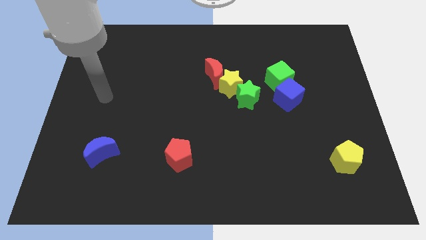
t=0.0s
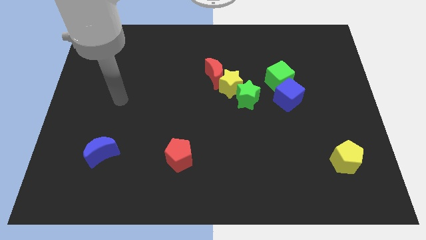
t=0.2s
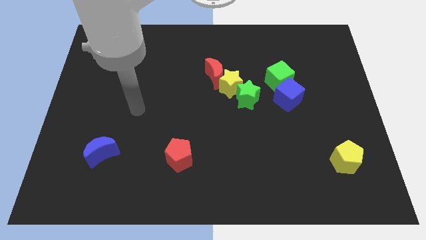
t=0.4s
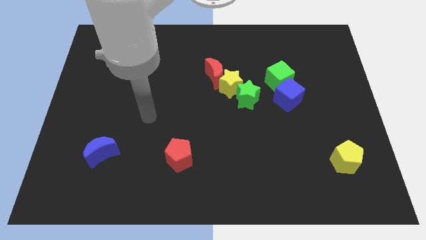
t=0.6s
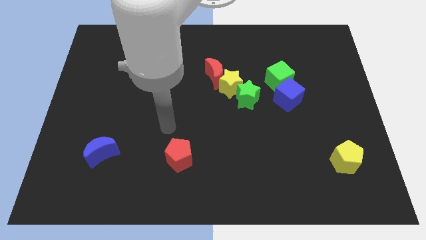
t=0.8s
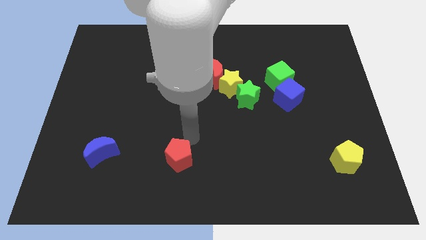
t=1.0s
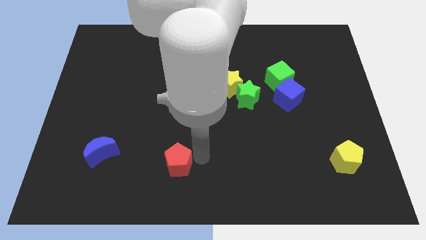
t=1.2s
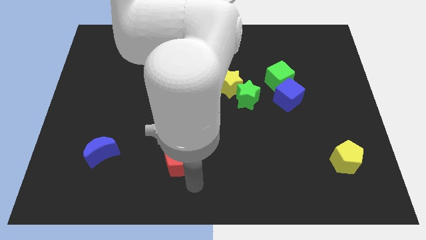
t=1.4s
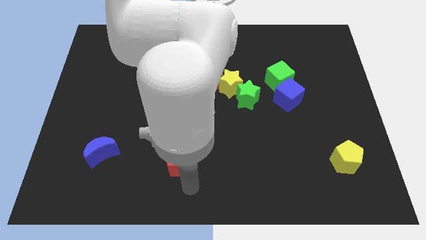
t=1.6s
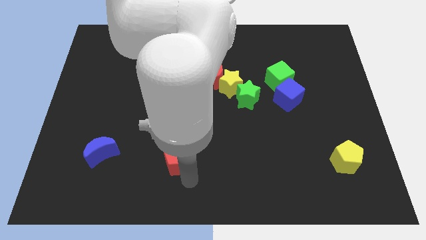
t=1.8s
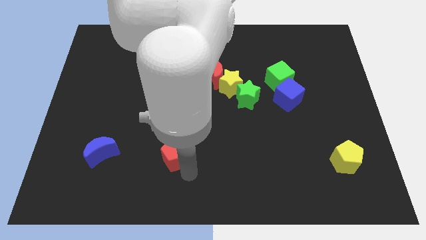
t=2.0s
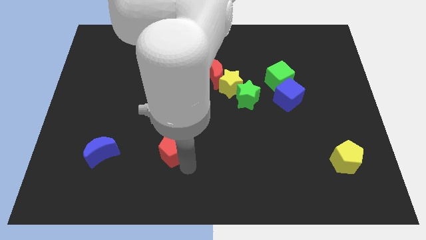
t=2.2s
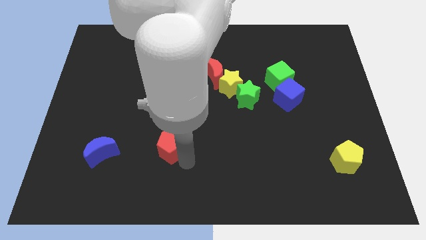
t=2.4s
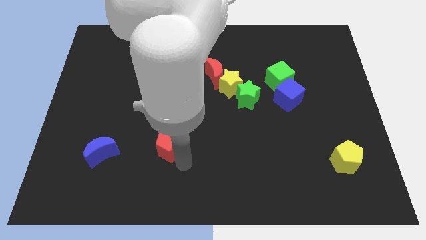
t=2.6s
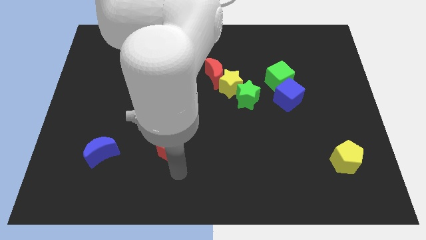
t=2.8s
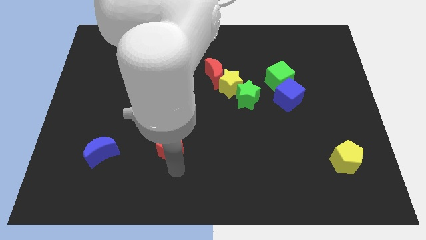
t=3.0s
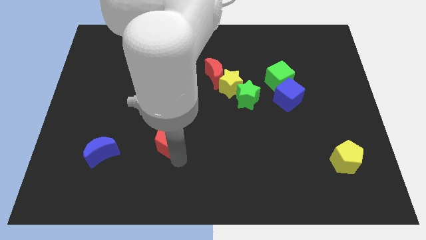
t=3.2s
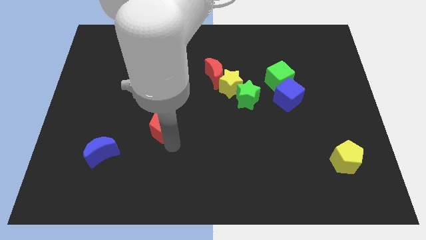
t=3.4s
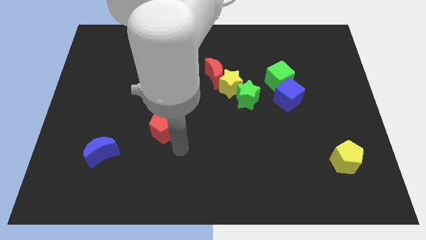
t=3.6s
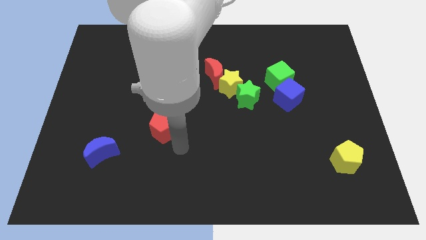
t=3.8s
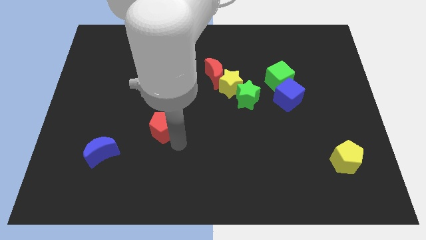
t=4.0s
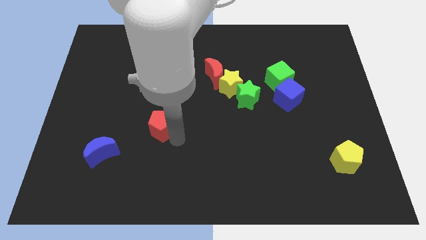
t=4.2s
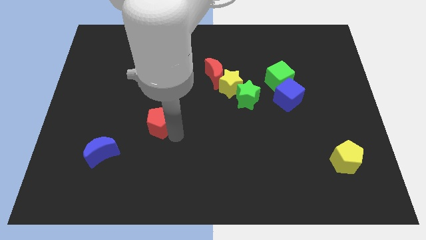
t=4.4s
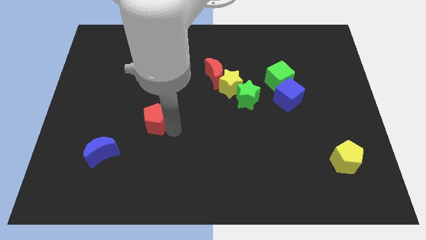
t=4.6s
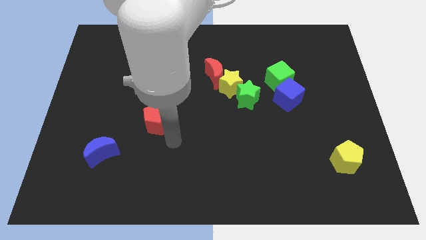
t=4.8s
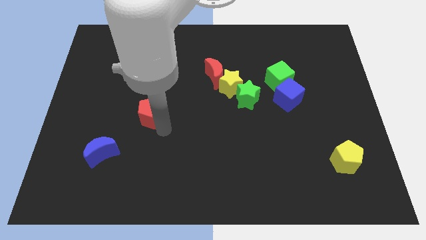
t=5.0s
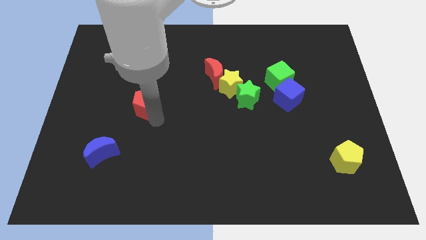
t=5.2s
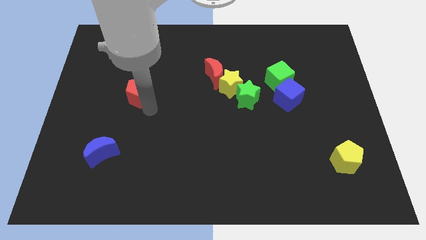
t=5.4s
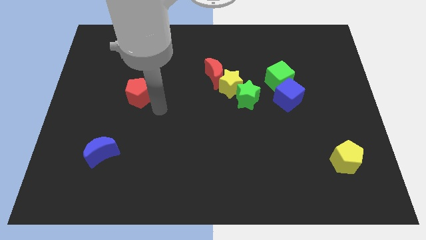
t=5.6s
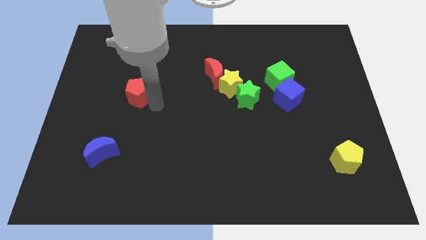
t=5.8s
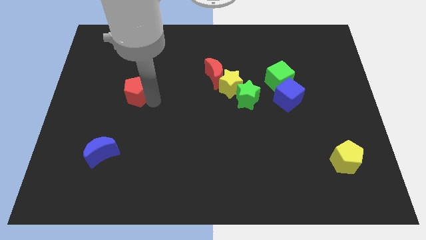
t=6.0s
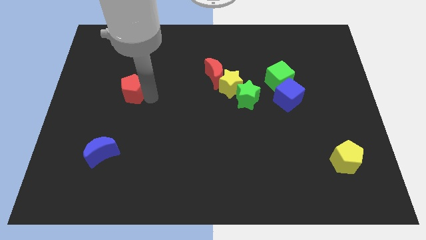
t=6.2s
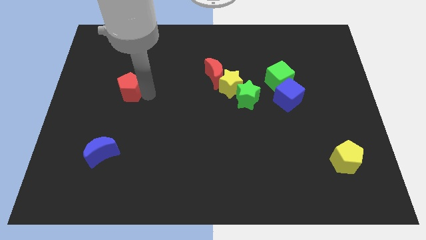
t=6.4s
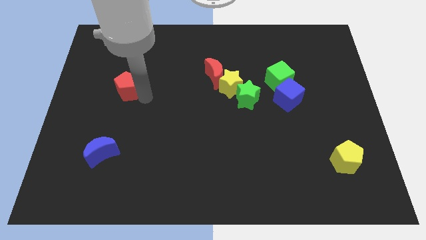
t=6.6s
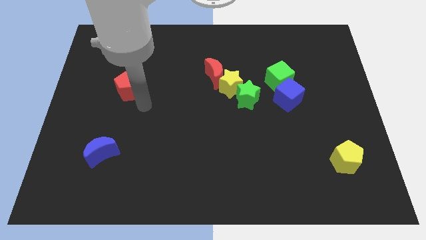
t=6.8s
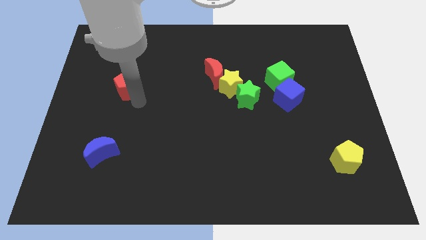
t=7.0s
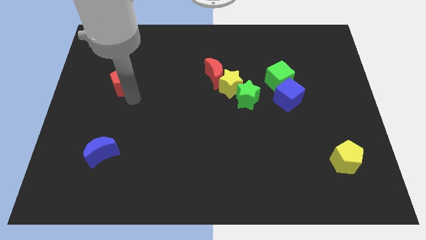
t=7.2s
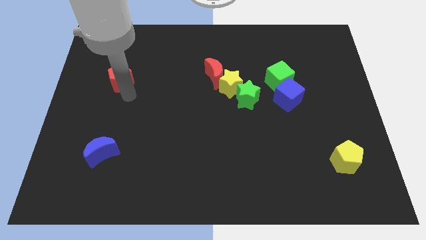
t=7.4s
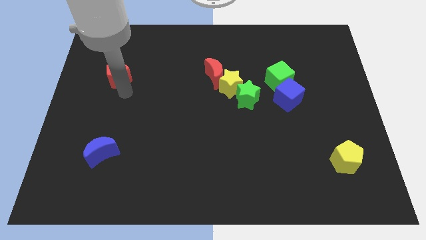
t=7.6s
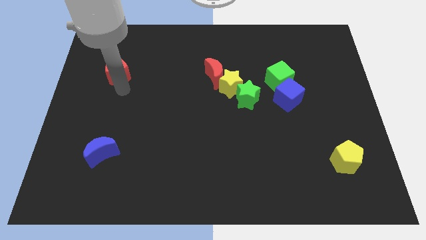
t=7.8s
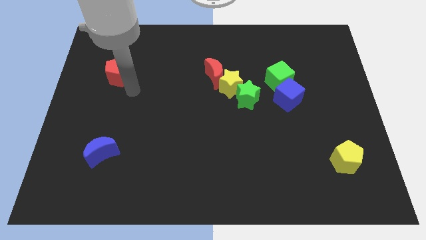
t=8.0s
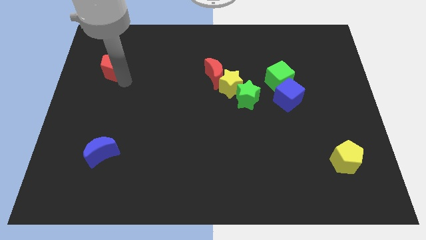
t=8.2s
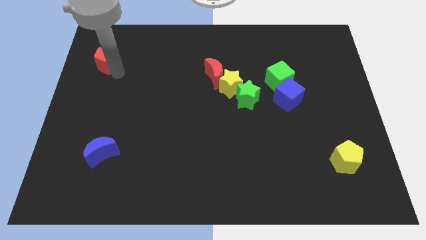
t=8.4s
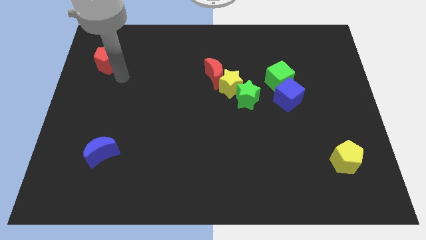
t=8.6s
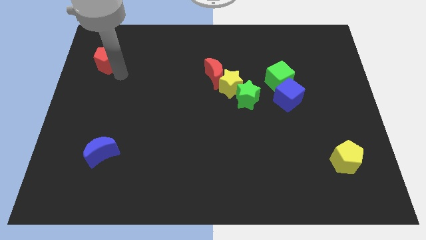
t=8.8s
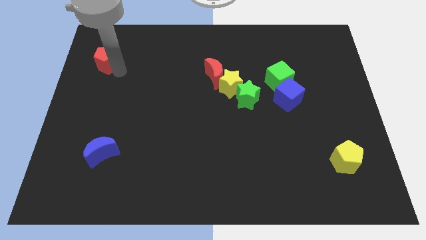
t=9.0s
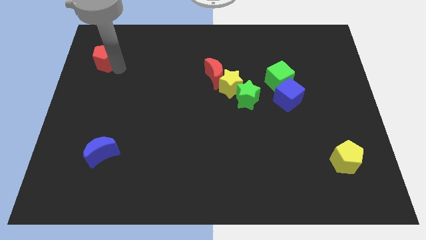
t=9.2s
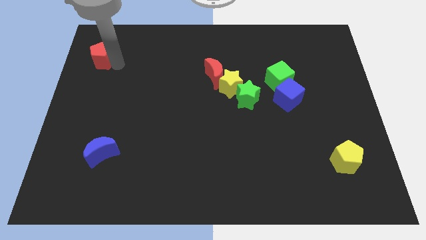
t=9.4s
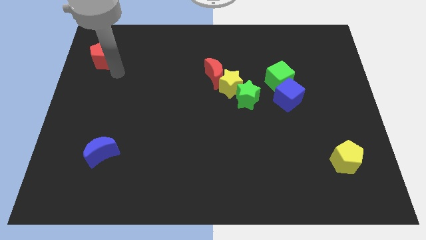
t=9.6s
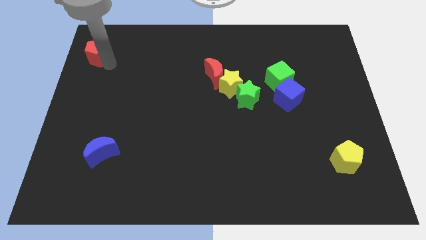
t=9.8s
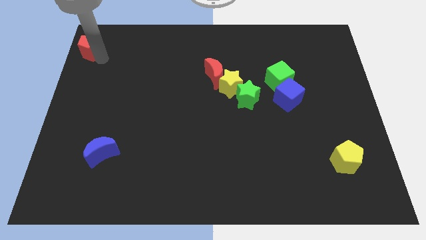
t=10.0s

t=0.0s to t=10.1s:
push the red pentagon to the upper left corner

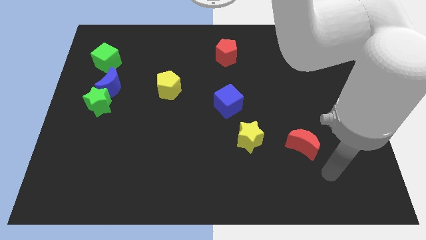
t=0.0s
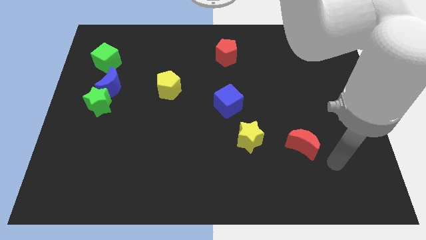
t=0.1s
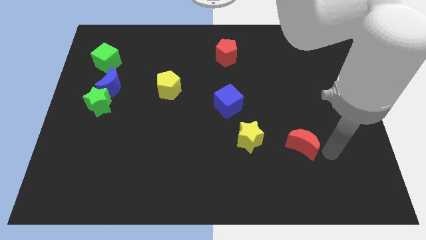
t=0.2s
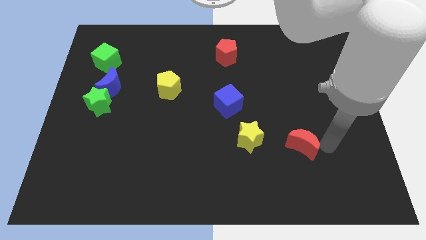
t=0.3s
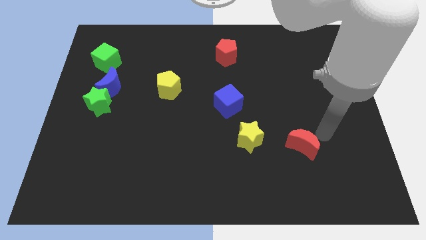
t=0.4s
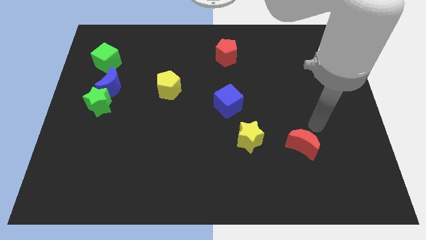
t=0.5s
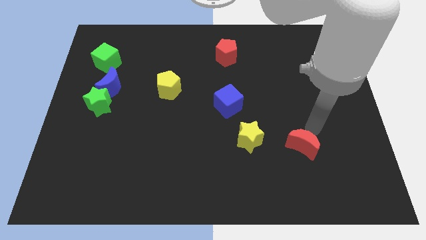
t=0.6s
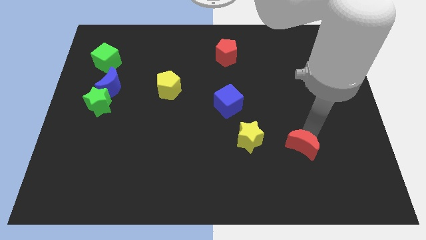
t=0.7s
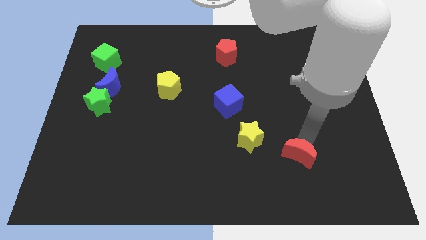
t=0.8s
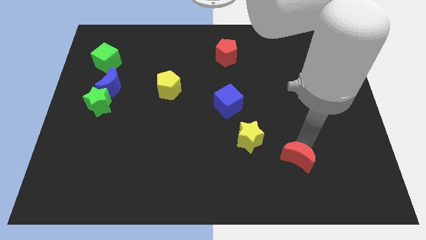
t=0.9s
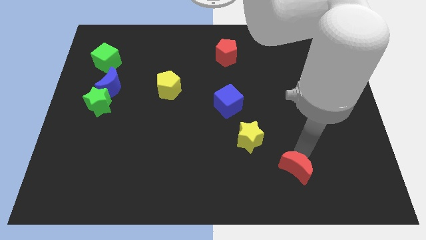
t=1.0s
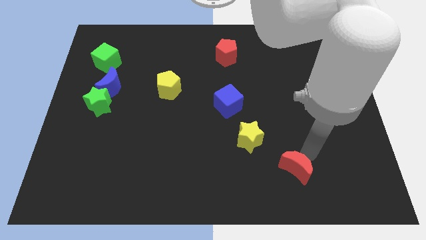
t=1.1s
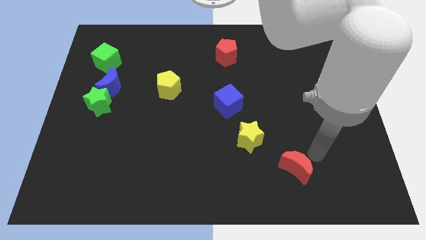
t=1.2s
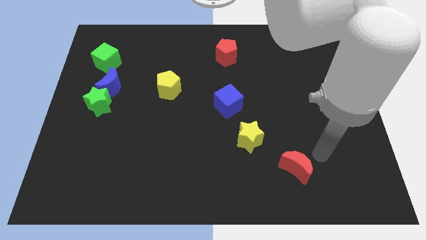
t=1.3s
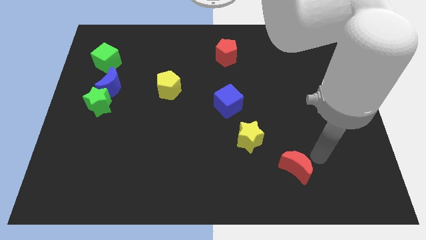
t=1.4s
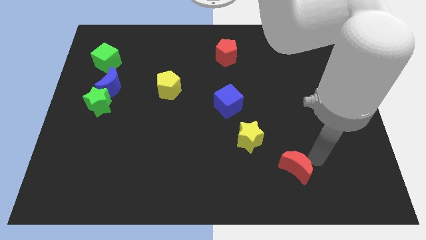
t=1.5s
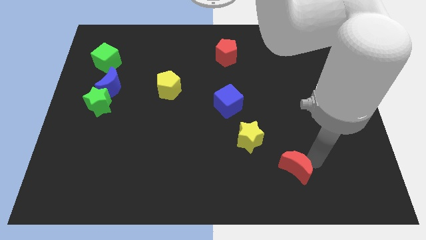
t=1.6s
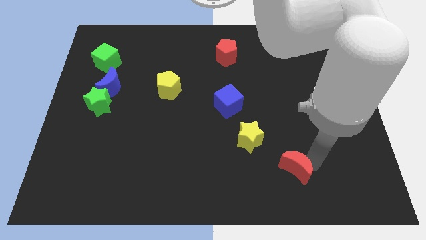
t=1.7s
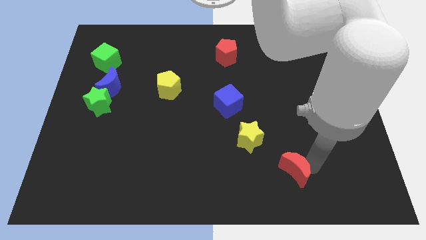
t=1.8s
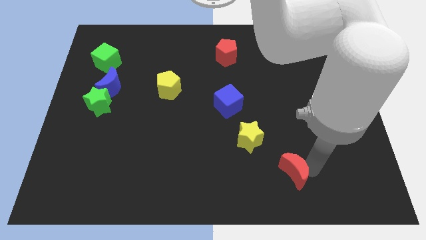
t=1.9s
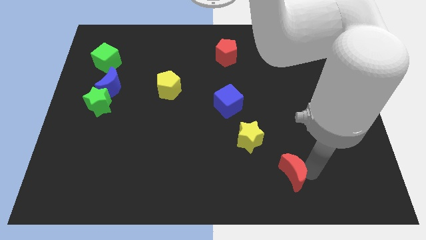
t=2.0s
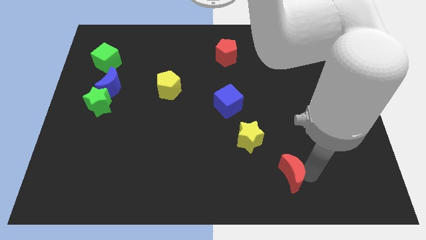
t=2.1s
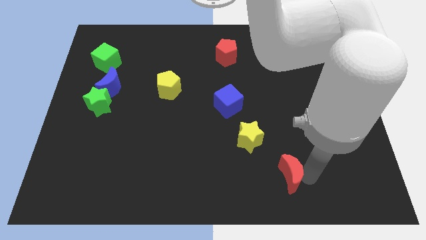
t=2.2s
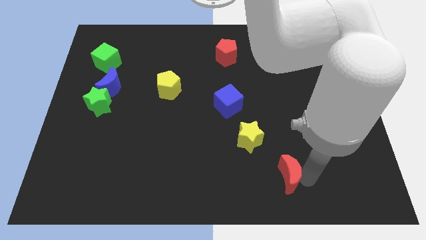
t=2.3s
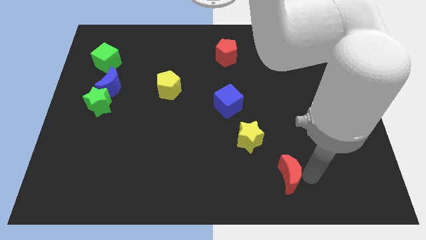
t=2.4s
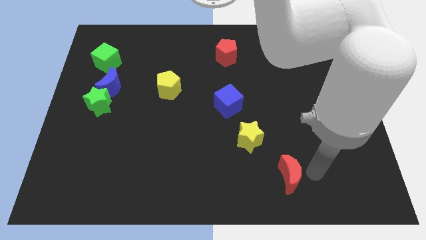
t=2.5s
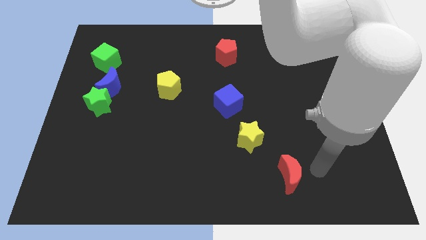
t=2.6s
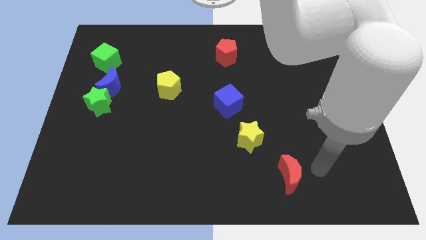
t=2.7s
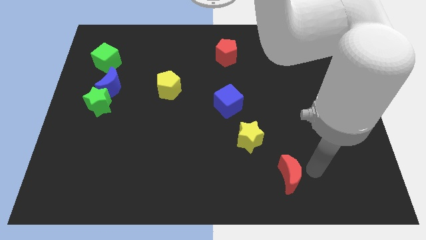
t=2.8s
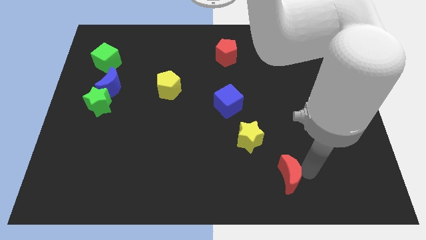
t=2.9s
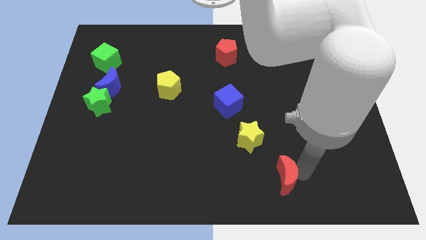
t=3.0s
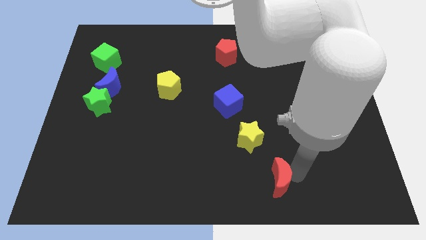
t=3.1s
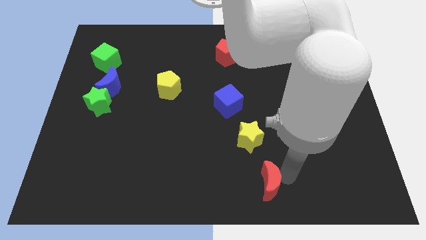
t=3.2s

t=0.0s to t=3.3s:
slide the red moon to the bottom
